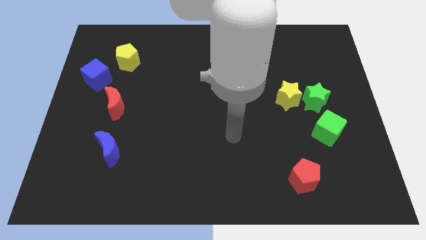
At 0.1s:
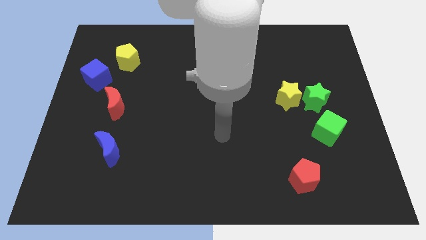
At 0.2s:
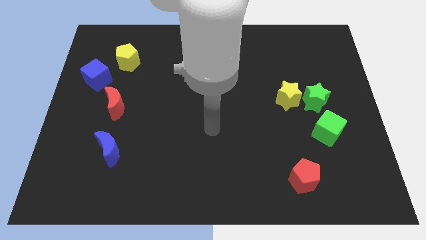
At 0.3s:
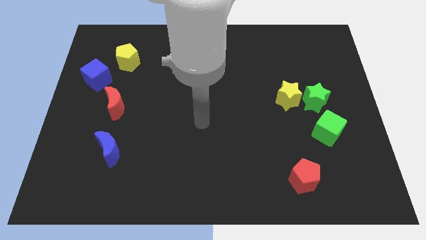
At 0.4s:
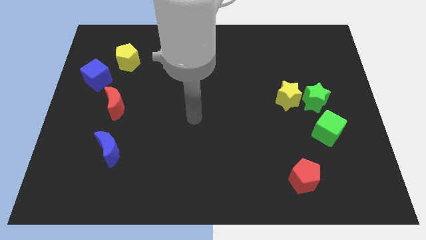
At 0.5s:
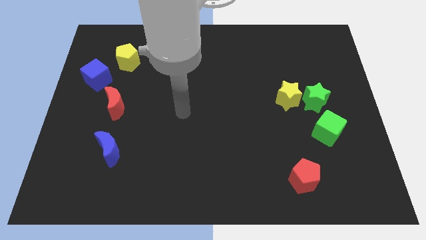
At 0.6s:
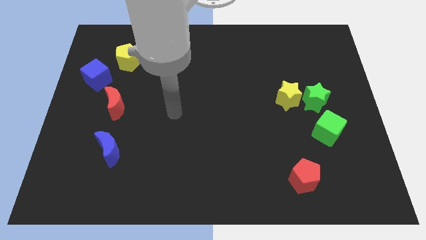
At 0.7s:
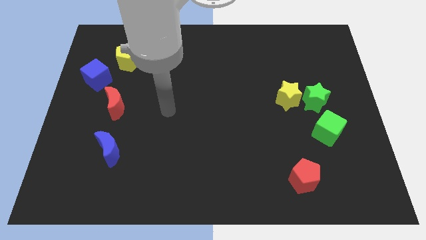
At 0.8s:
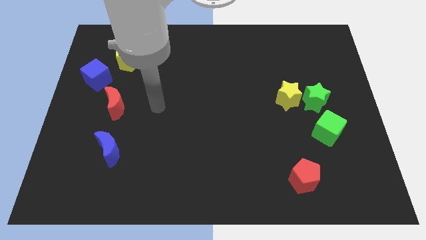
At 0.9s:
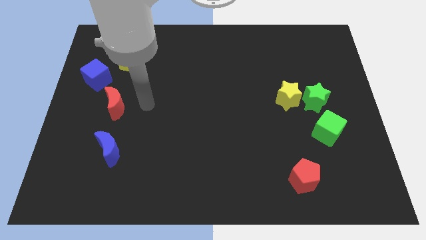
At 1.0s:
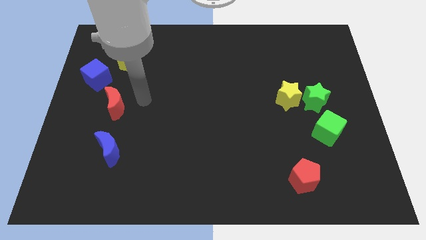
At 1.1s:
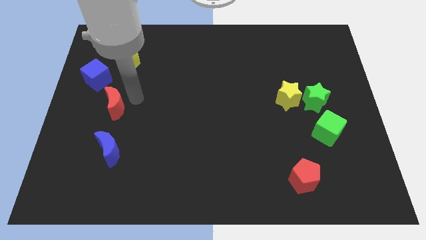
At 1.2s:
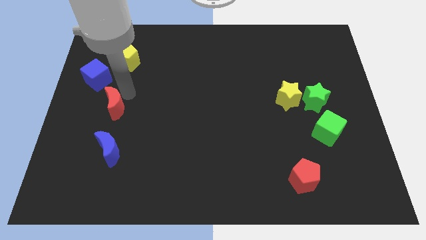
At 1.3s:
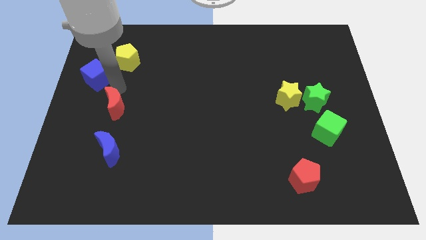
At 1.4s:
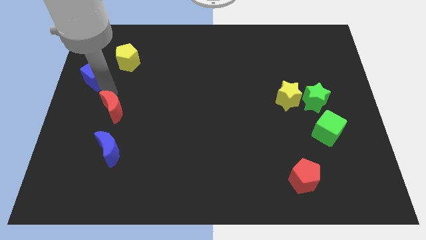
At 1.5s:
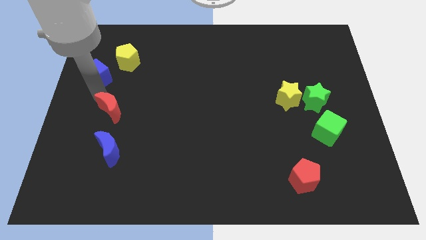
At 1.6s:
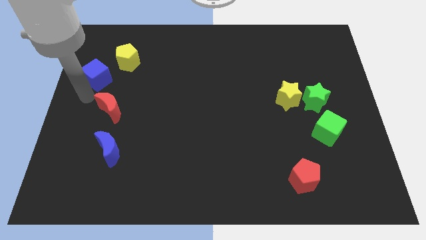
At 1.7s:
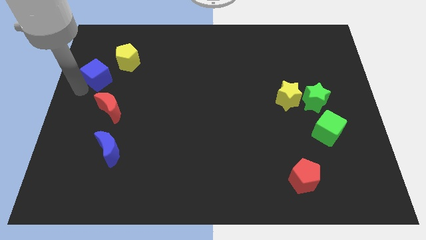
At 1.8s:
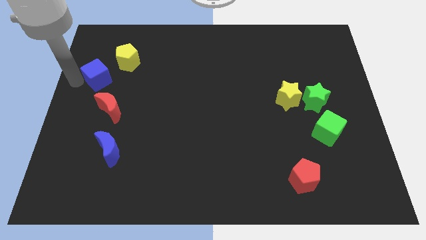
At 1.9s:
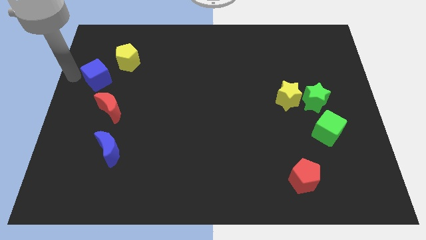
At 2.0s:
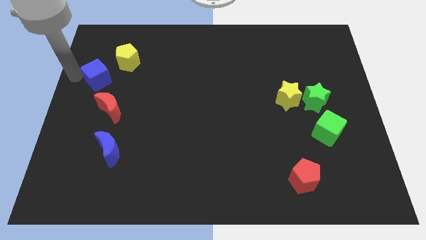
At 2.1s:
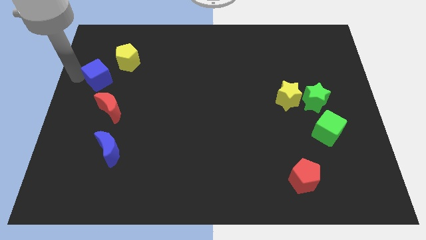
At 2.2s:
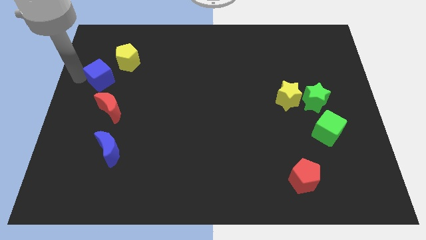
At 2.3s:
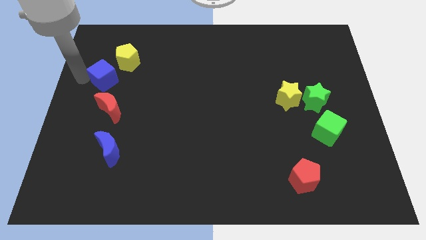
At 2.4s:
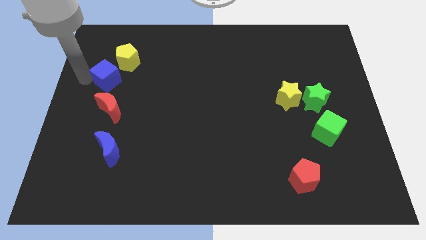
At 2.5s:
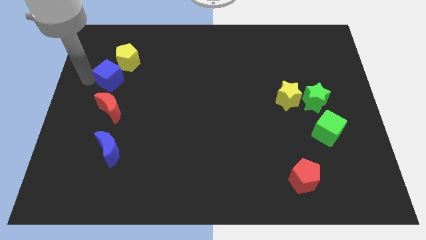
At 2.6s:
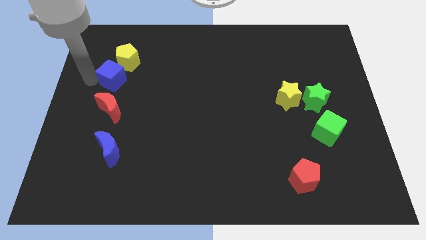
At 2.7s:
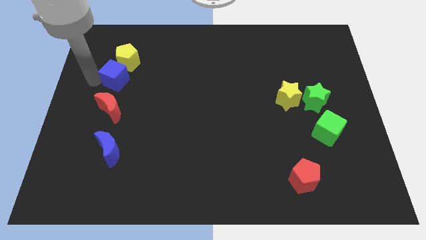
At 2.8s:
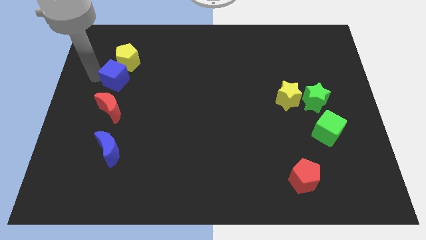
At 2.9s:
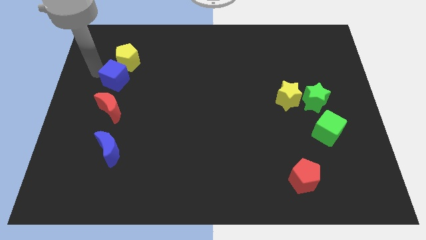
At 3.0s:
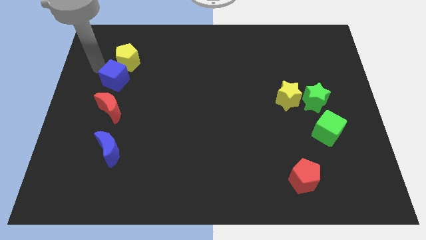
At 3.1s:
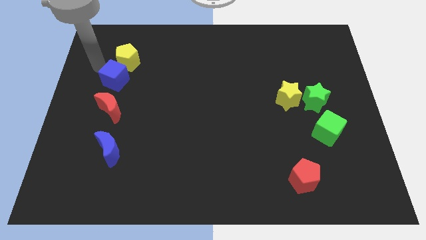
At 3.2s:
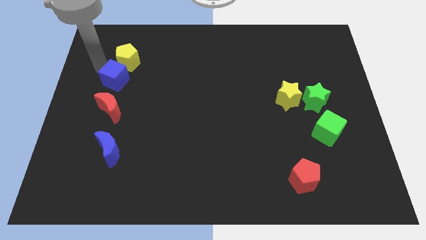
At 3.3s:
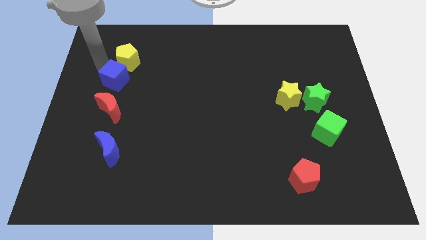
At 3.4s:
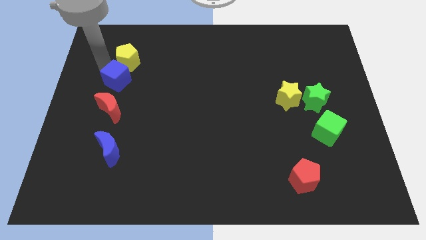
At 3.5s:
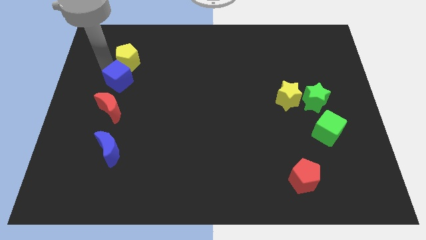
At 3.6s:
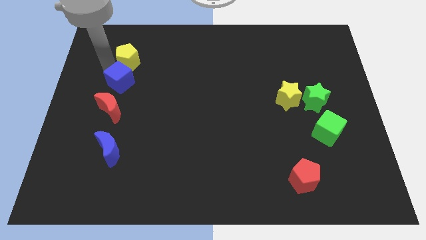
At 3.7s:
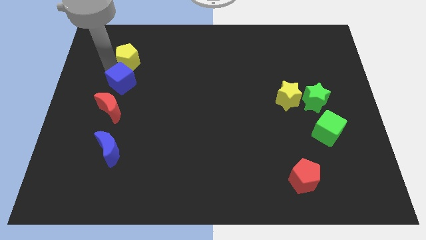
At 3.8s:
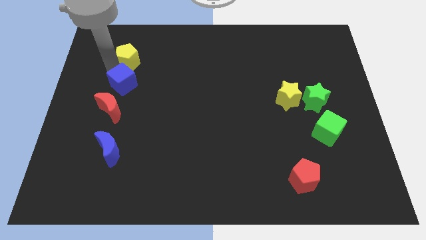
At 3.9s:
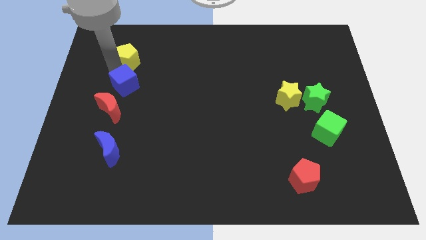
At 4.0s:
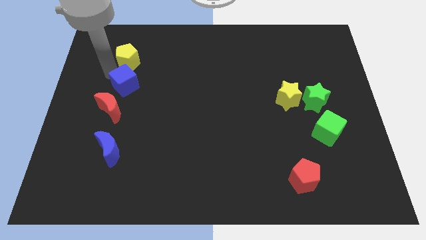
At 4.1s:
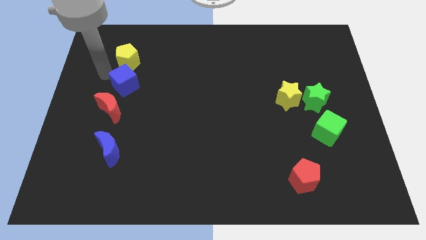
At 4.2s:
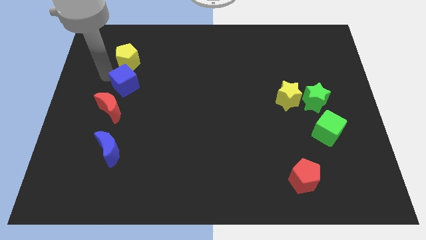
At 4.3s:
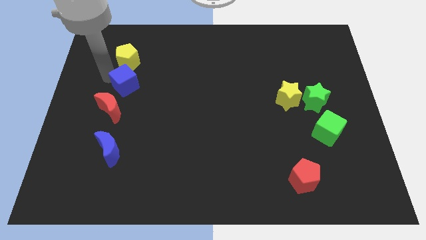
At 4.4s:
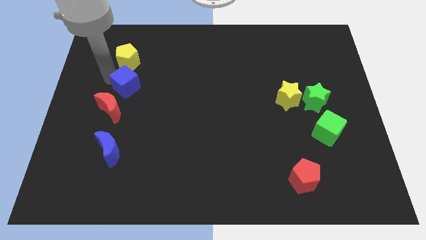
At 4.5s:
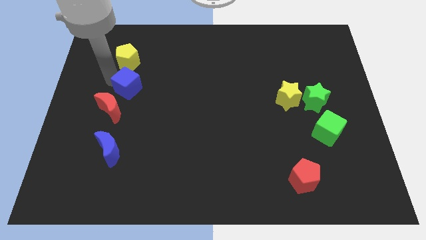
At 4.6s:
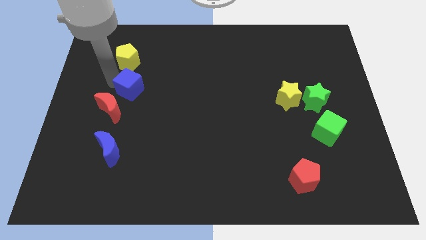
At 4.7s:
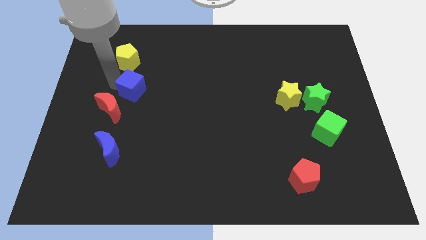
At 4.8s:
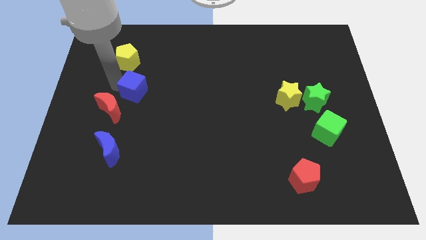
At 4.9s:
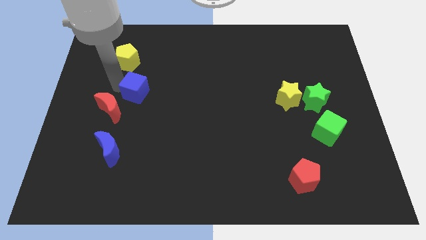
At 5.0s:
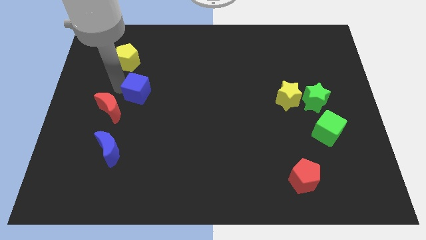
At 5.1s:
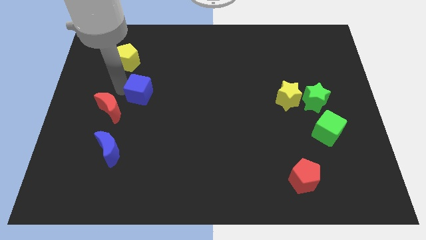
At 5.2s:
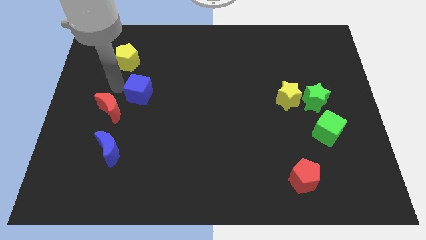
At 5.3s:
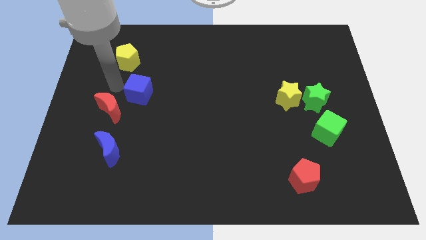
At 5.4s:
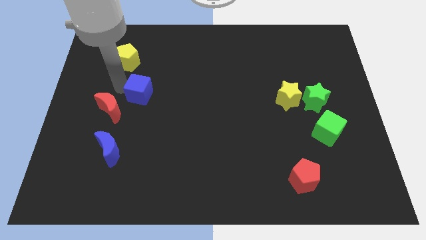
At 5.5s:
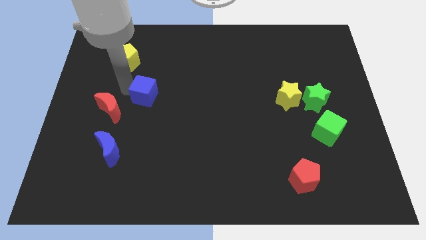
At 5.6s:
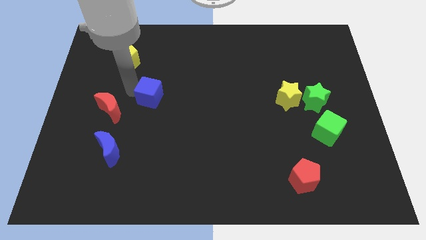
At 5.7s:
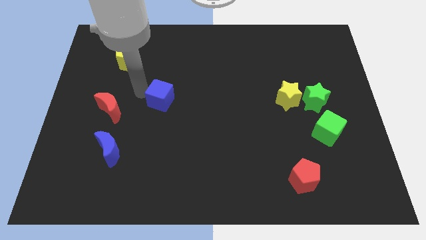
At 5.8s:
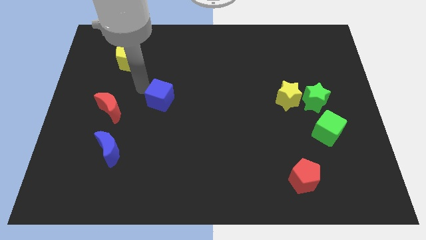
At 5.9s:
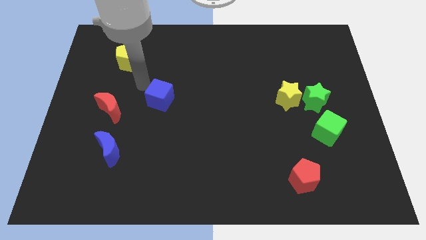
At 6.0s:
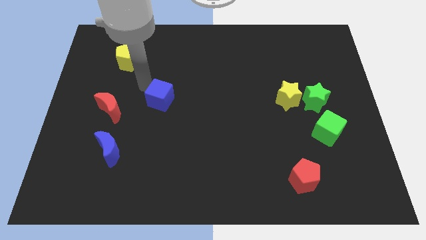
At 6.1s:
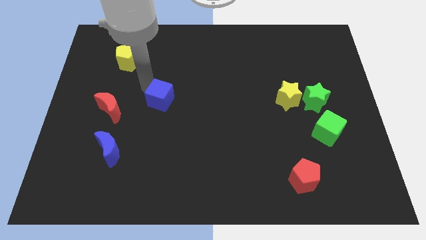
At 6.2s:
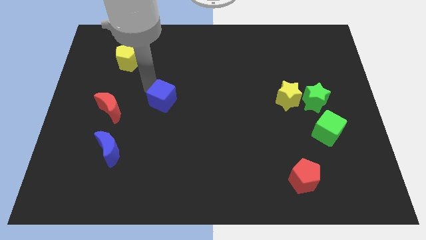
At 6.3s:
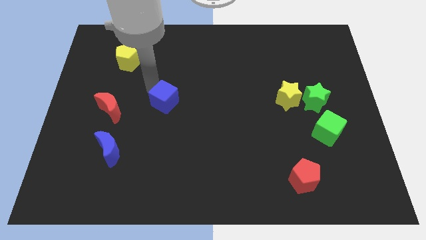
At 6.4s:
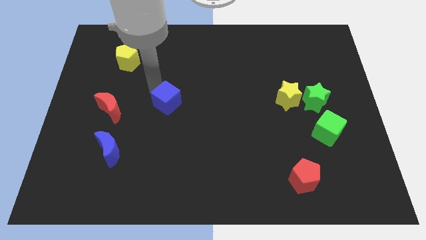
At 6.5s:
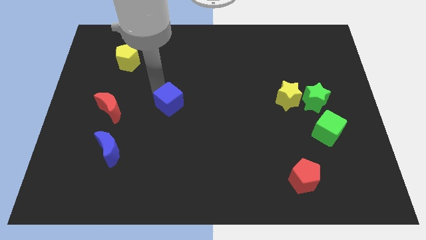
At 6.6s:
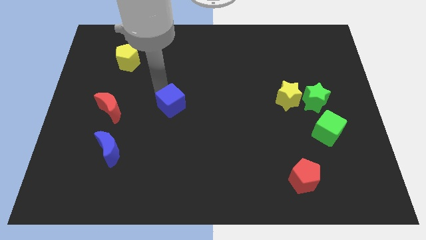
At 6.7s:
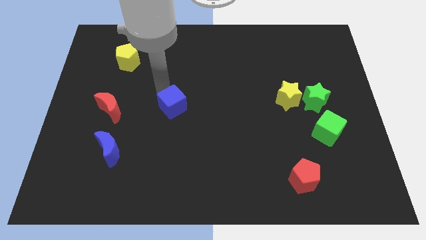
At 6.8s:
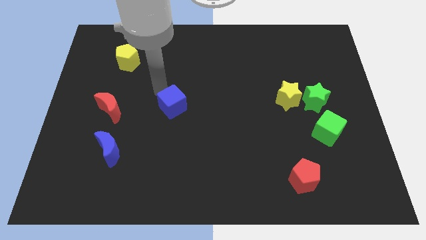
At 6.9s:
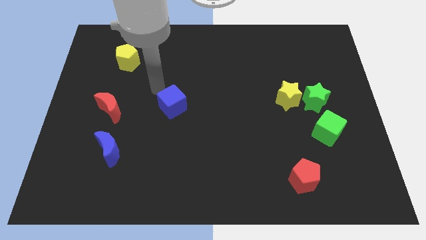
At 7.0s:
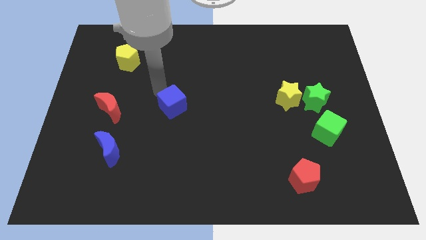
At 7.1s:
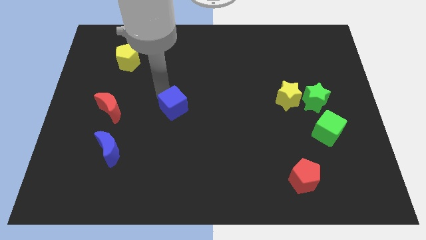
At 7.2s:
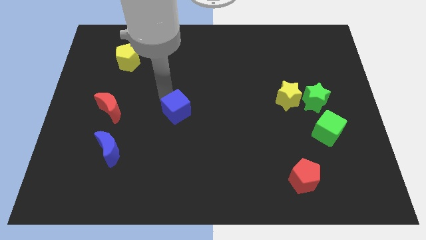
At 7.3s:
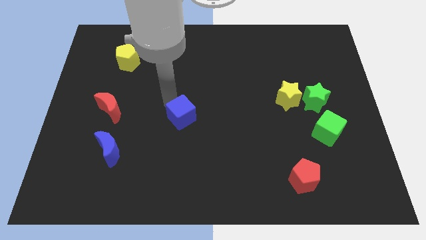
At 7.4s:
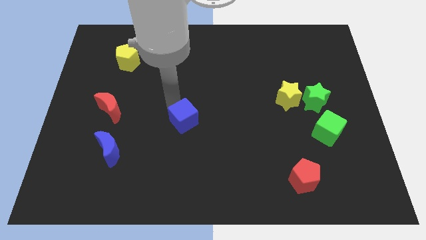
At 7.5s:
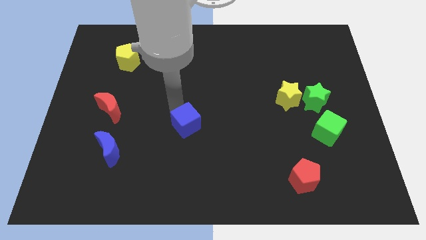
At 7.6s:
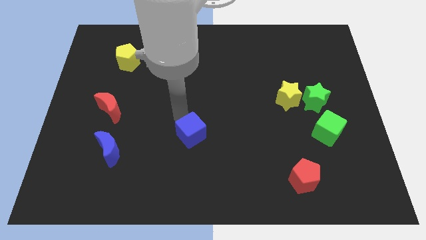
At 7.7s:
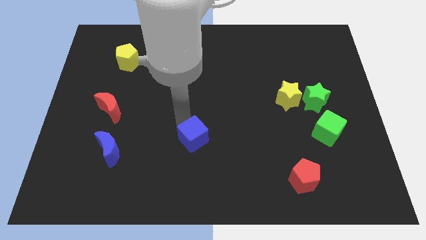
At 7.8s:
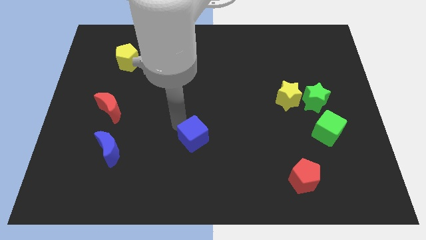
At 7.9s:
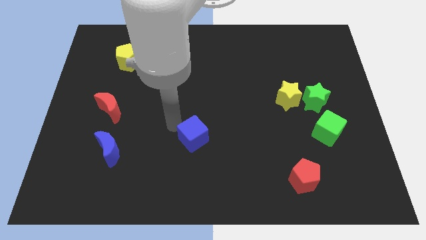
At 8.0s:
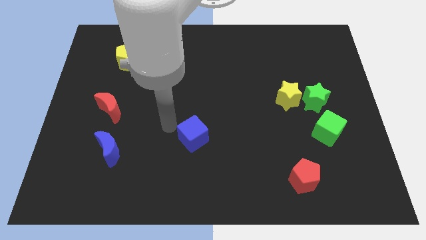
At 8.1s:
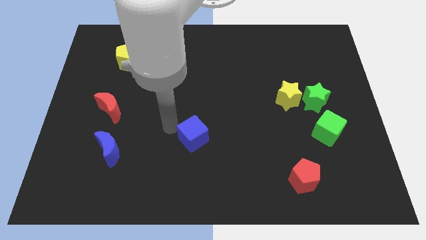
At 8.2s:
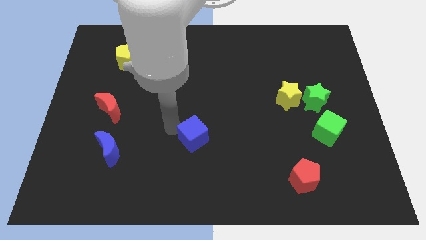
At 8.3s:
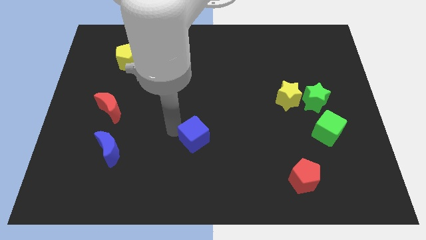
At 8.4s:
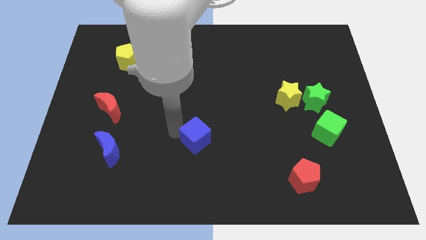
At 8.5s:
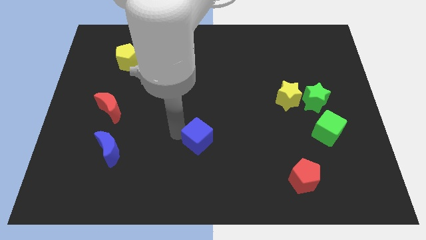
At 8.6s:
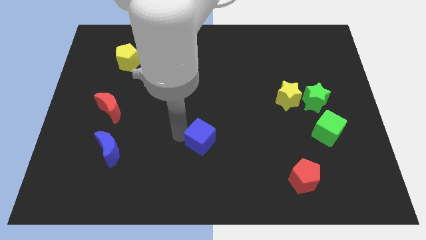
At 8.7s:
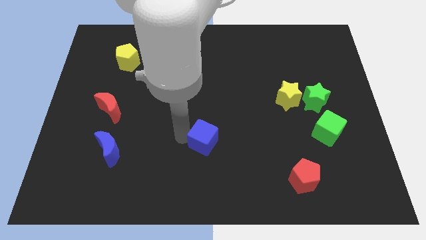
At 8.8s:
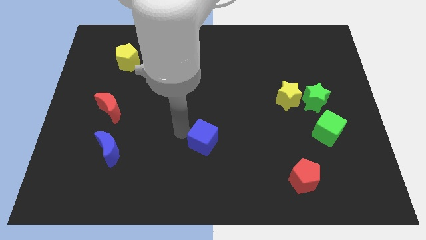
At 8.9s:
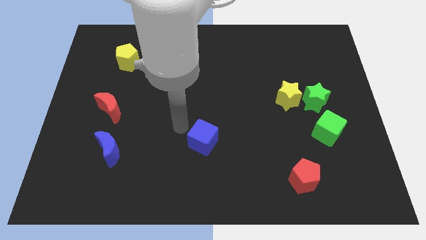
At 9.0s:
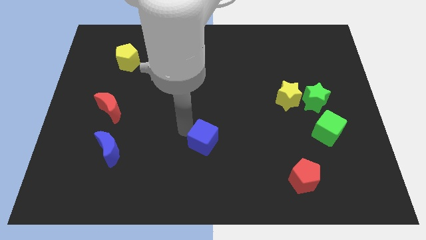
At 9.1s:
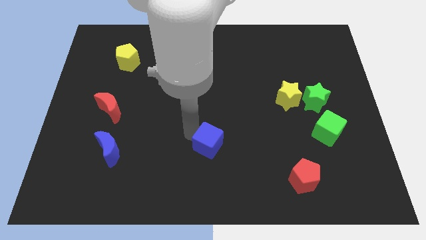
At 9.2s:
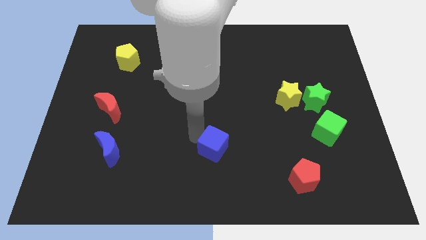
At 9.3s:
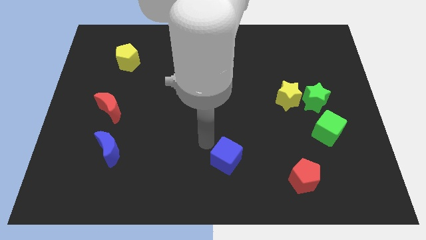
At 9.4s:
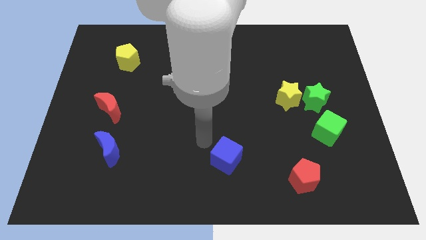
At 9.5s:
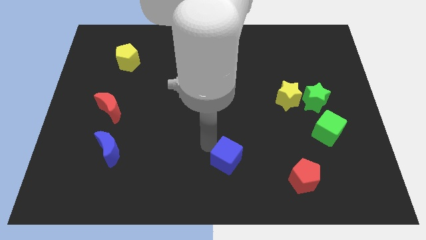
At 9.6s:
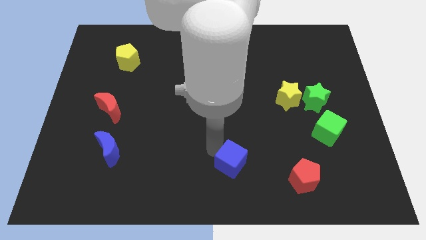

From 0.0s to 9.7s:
put the blue cube to the left side of the red pentagon
